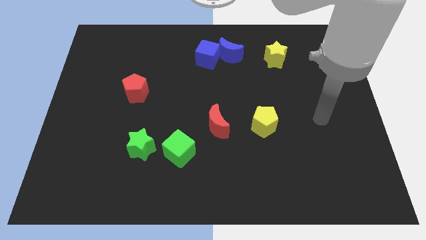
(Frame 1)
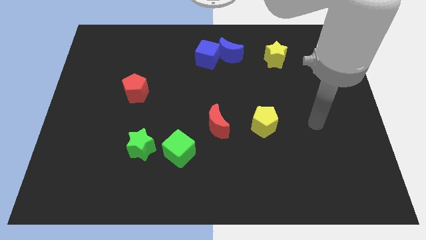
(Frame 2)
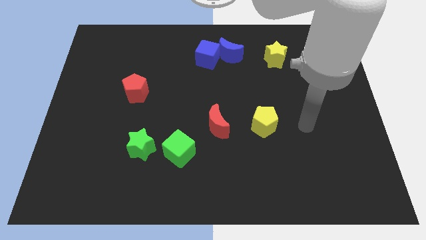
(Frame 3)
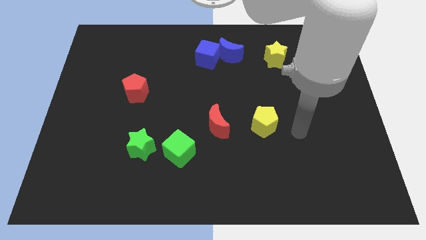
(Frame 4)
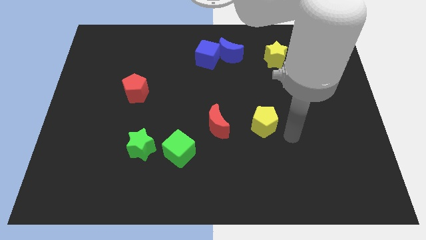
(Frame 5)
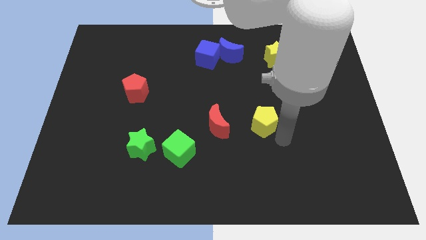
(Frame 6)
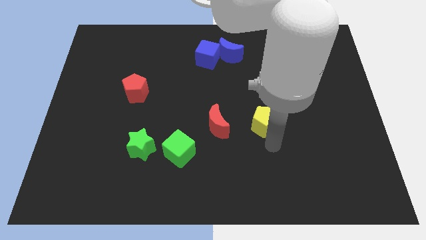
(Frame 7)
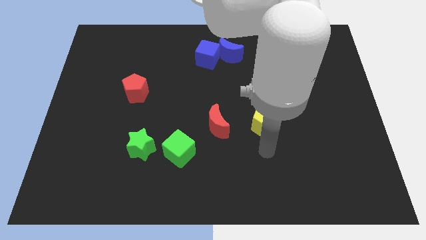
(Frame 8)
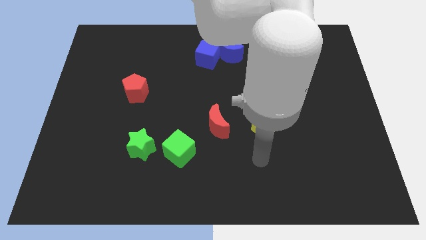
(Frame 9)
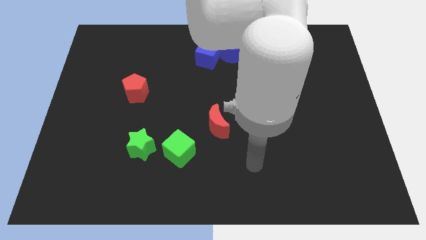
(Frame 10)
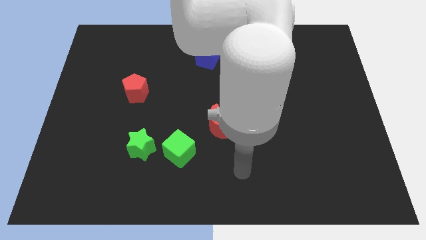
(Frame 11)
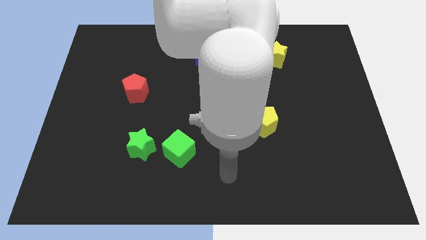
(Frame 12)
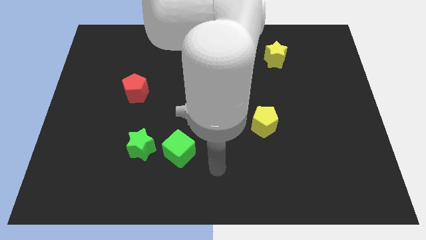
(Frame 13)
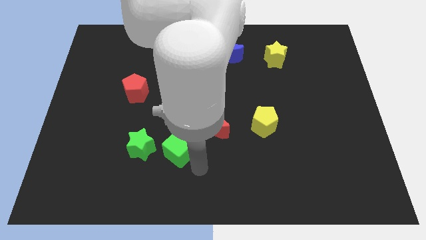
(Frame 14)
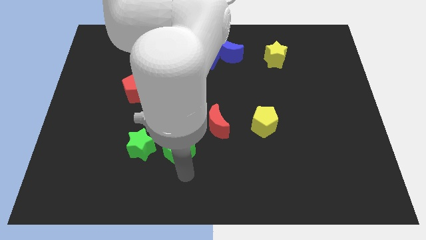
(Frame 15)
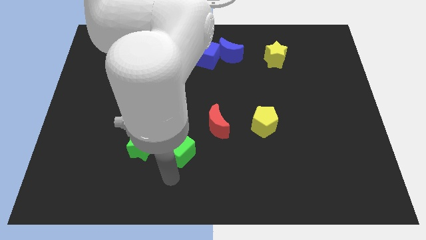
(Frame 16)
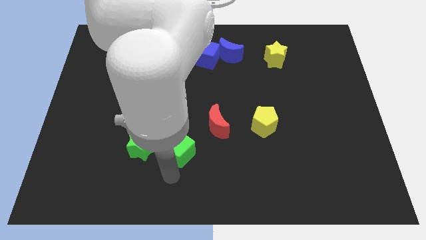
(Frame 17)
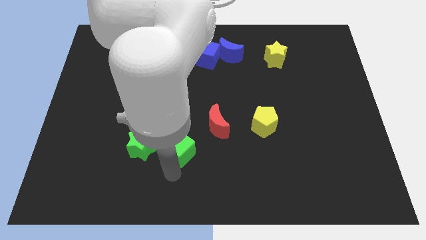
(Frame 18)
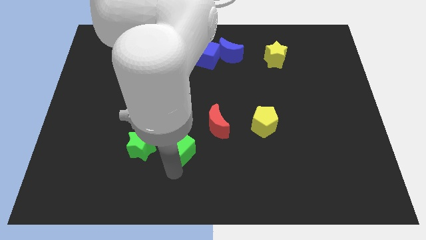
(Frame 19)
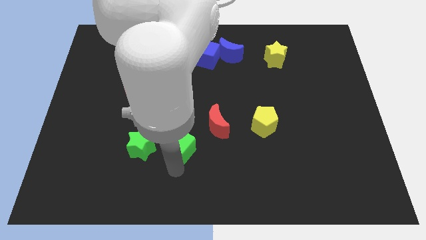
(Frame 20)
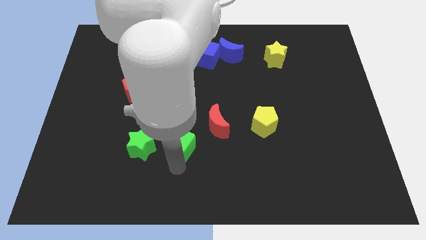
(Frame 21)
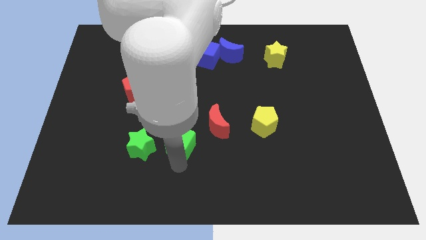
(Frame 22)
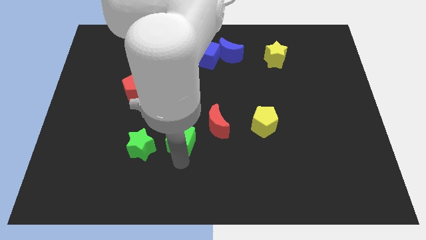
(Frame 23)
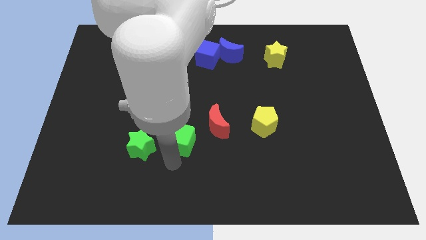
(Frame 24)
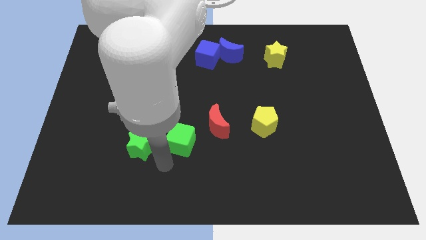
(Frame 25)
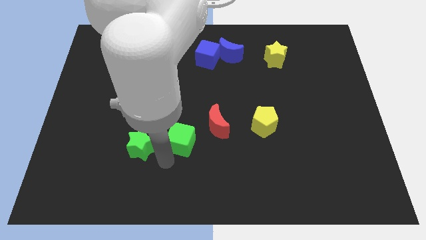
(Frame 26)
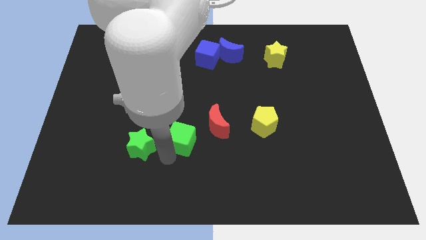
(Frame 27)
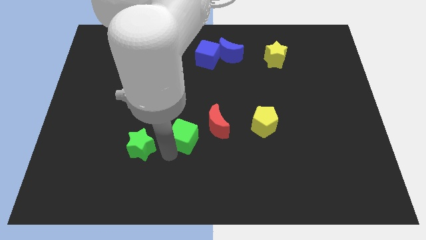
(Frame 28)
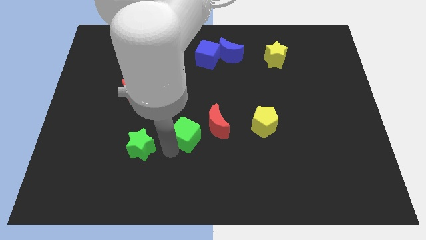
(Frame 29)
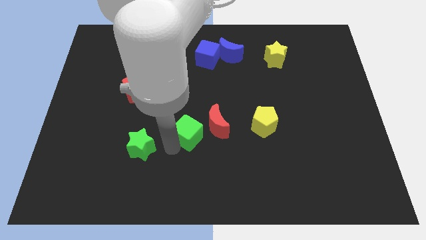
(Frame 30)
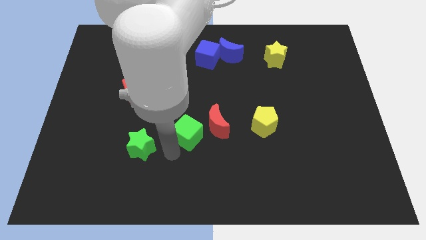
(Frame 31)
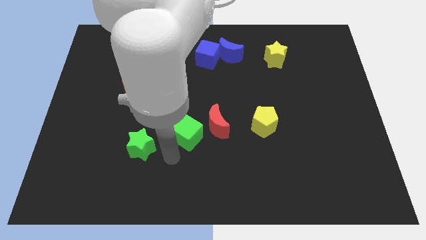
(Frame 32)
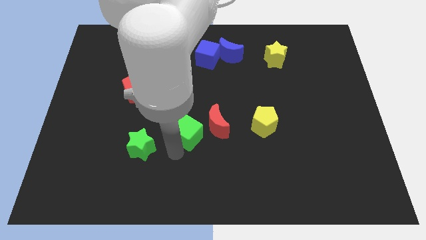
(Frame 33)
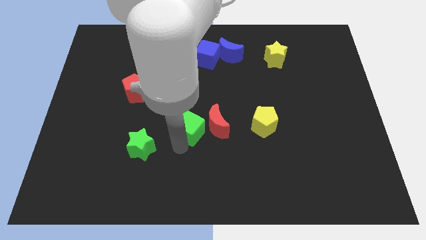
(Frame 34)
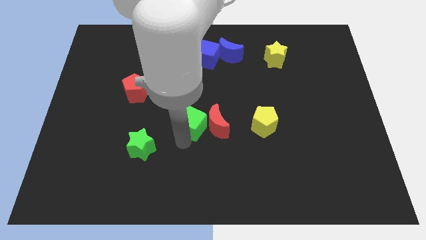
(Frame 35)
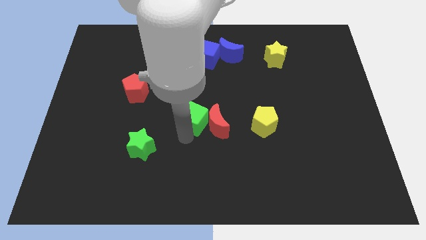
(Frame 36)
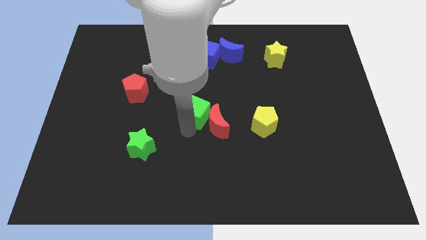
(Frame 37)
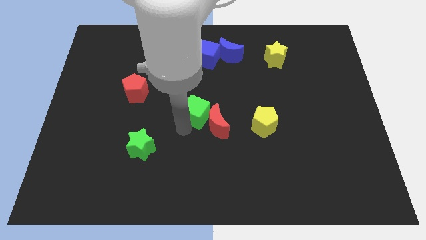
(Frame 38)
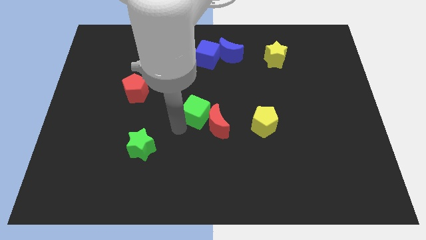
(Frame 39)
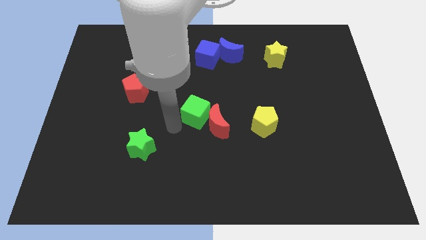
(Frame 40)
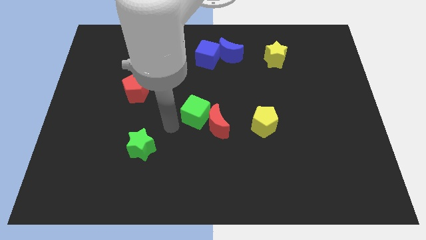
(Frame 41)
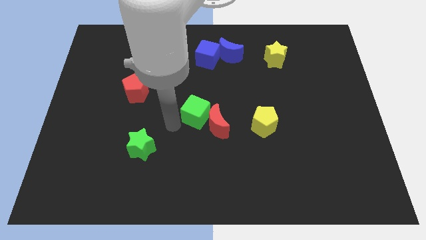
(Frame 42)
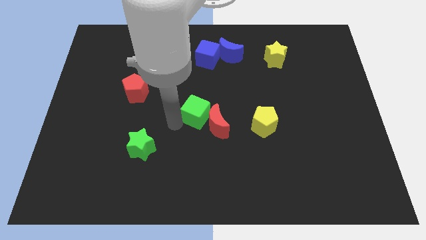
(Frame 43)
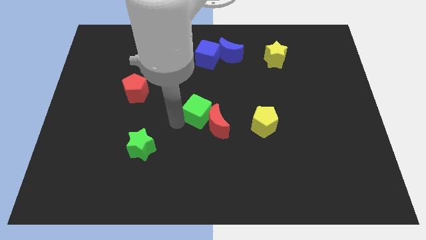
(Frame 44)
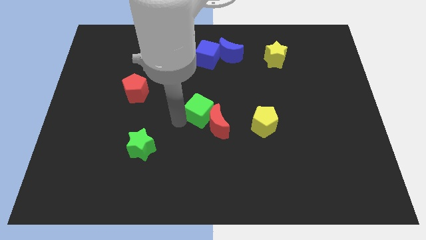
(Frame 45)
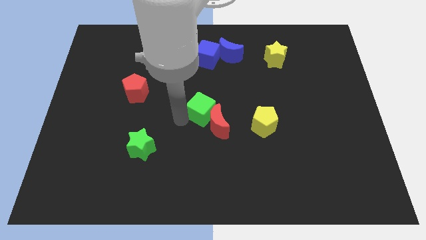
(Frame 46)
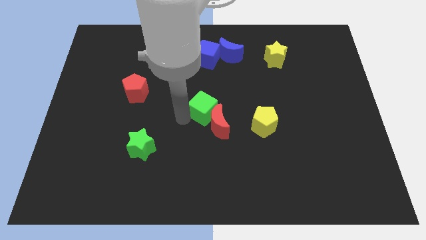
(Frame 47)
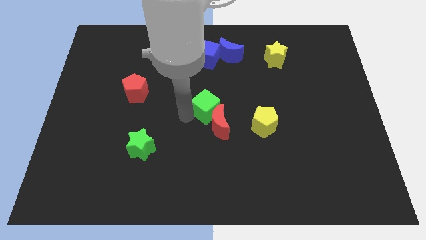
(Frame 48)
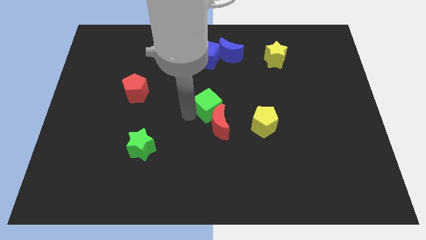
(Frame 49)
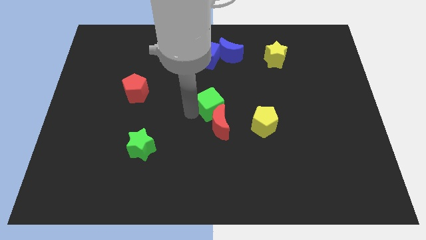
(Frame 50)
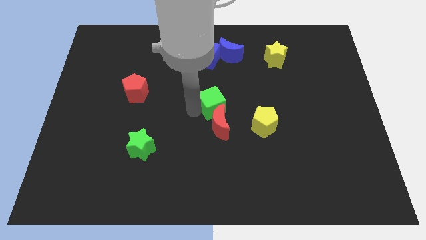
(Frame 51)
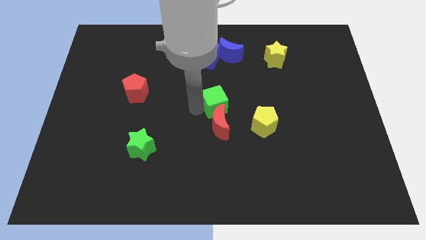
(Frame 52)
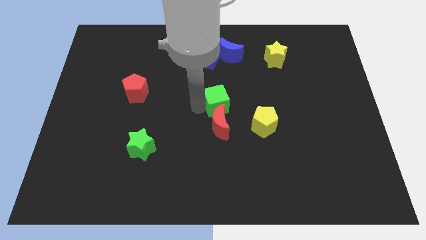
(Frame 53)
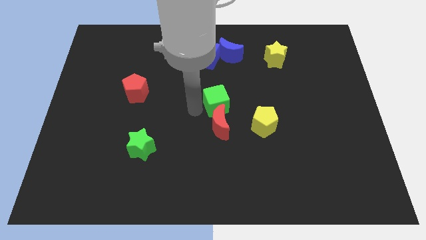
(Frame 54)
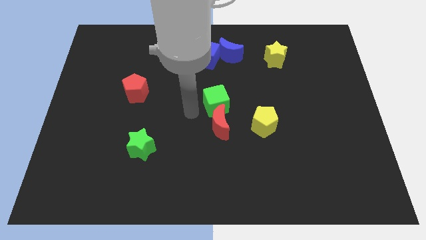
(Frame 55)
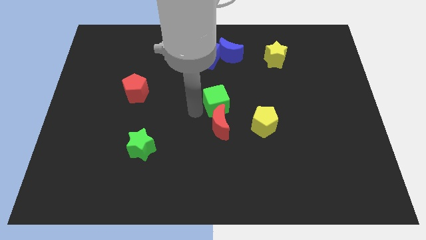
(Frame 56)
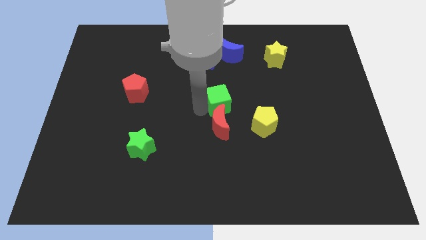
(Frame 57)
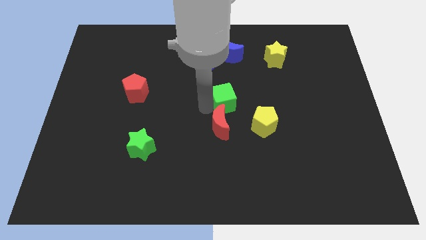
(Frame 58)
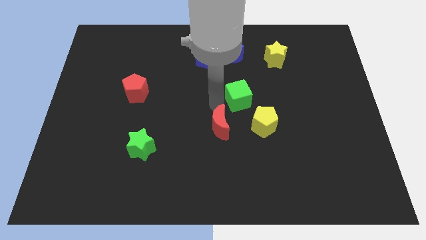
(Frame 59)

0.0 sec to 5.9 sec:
move the green cube upwards and right diagonally

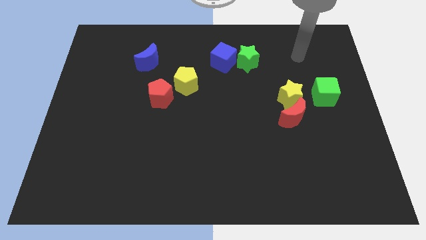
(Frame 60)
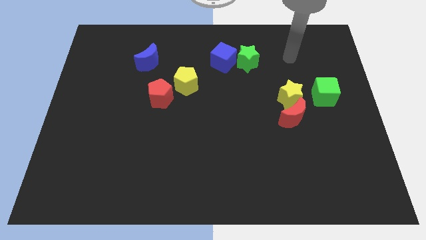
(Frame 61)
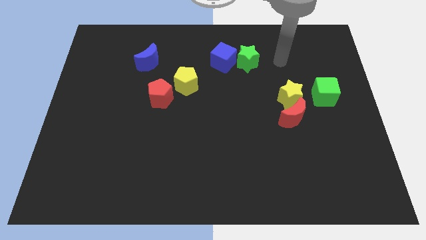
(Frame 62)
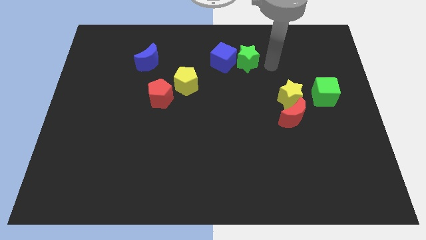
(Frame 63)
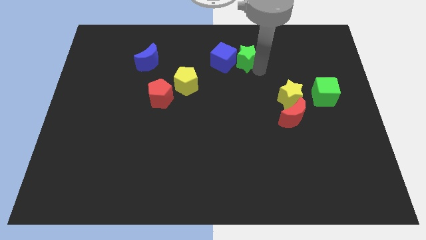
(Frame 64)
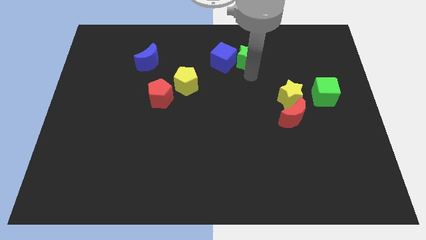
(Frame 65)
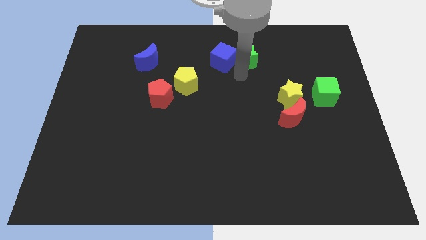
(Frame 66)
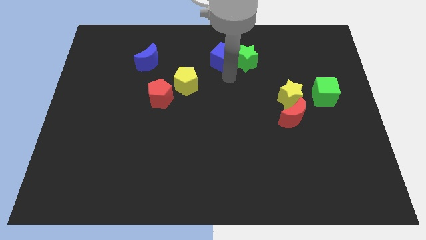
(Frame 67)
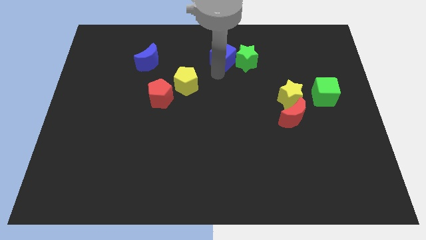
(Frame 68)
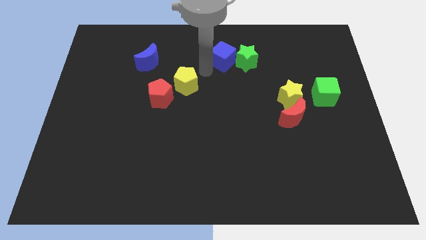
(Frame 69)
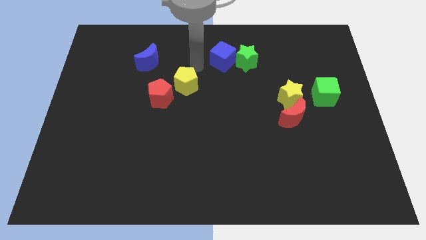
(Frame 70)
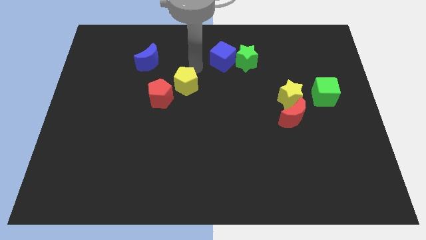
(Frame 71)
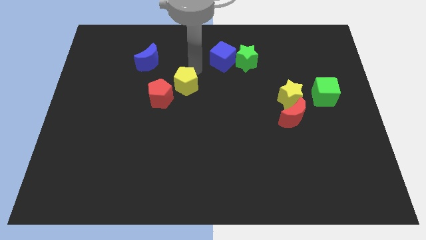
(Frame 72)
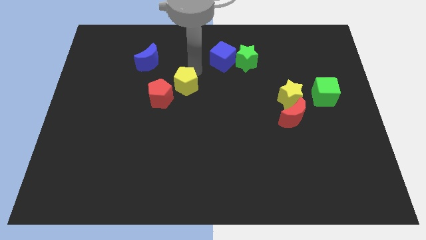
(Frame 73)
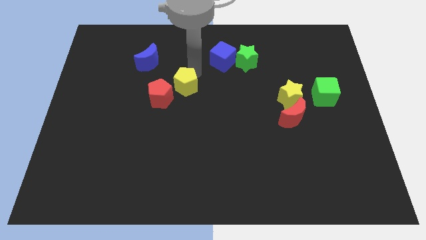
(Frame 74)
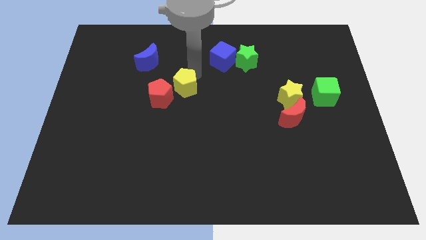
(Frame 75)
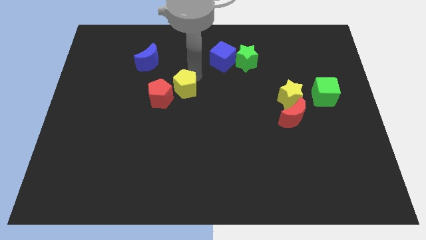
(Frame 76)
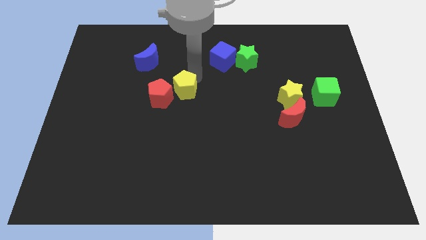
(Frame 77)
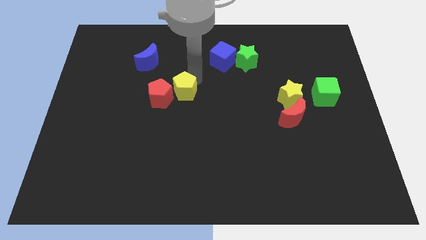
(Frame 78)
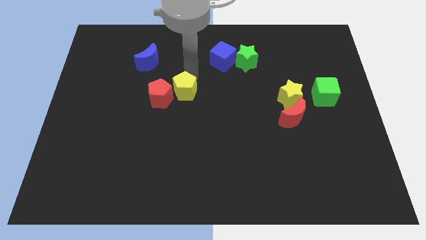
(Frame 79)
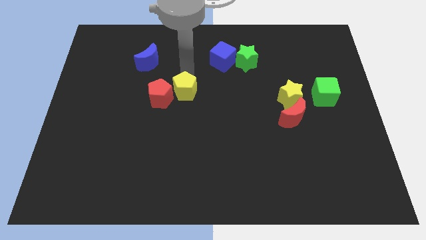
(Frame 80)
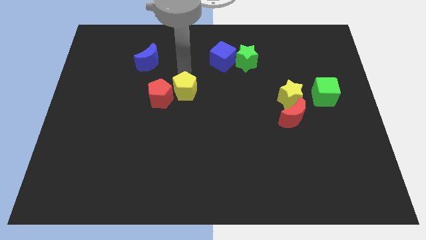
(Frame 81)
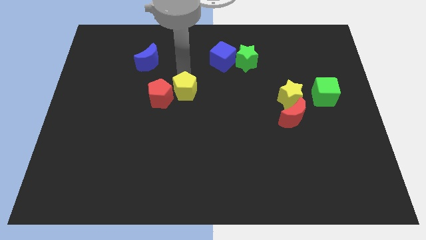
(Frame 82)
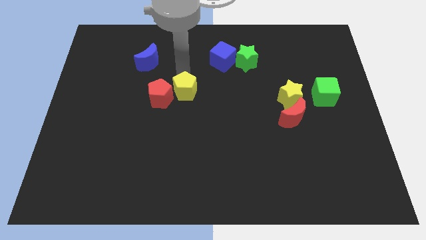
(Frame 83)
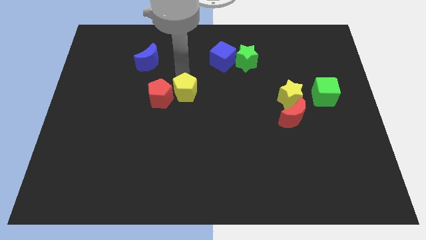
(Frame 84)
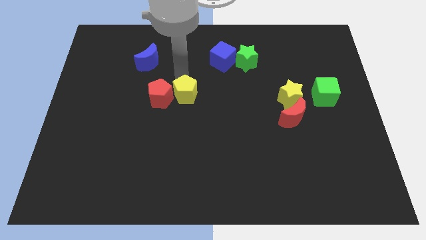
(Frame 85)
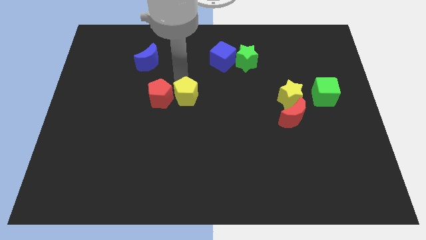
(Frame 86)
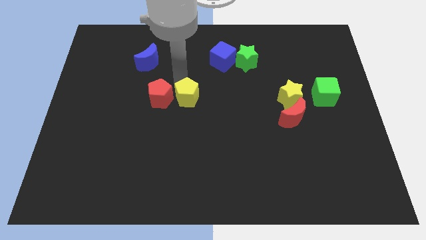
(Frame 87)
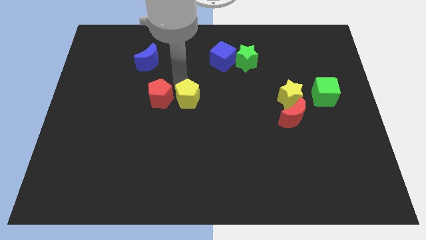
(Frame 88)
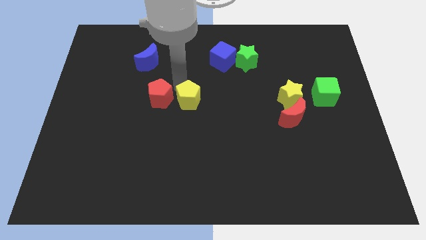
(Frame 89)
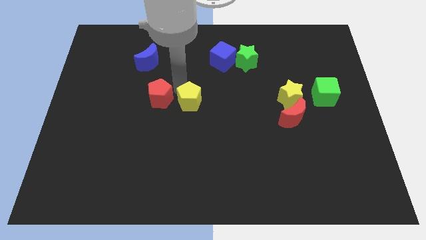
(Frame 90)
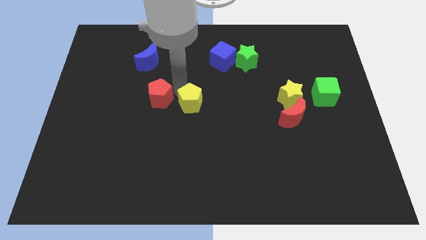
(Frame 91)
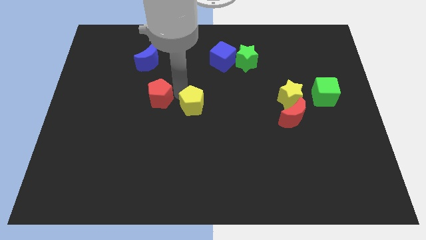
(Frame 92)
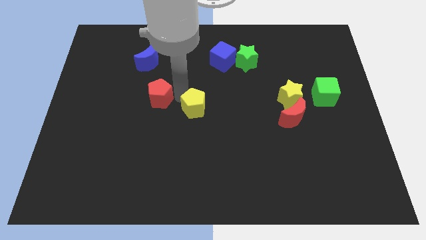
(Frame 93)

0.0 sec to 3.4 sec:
slightly push the yellow pentagon down
